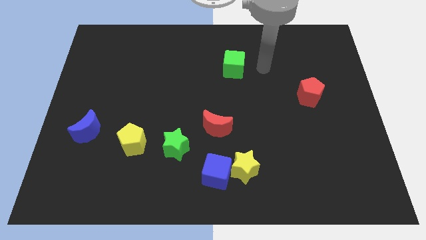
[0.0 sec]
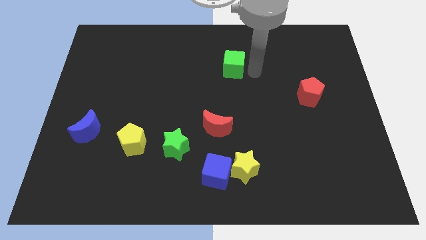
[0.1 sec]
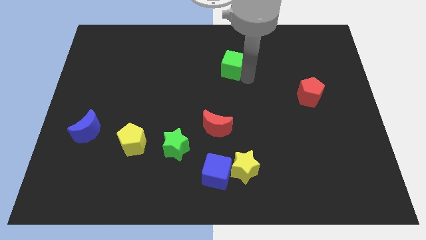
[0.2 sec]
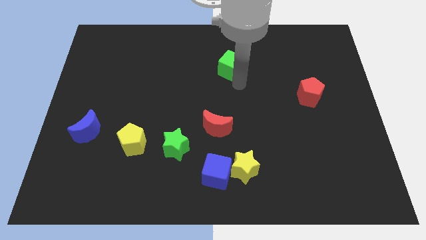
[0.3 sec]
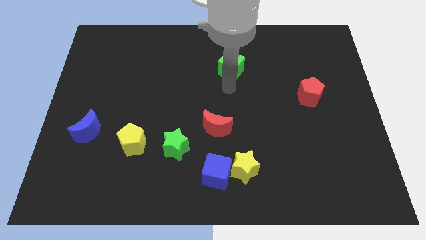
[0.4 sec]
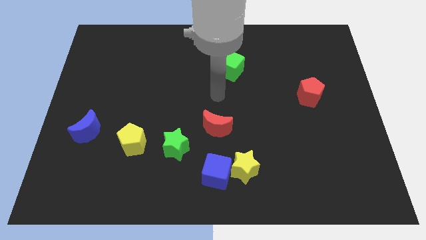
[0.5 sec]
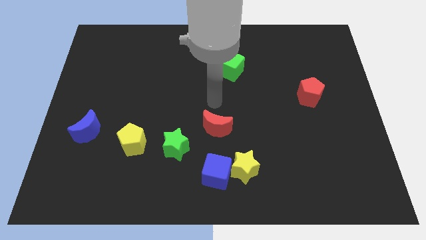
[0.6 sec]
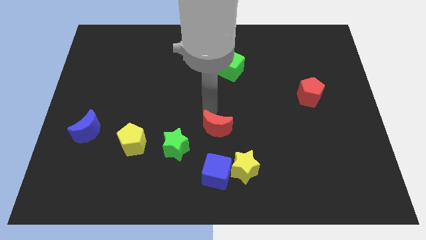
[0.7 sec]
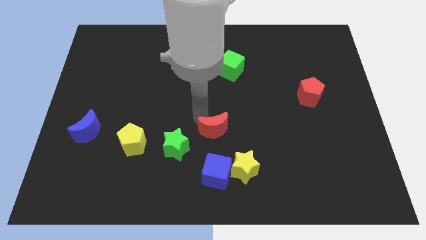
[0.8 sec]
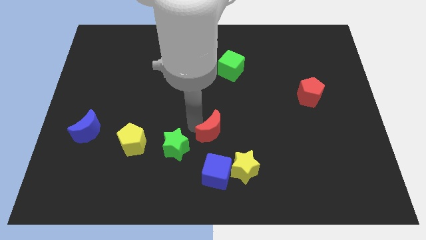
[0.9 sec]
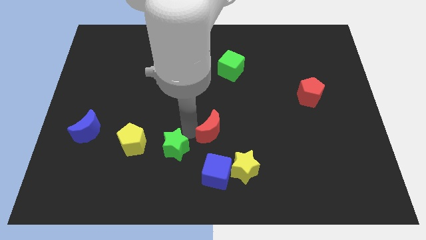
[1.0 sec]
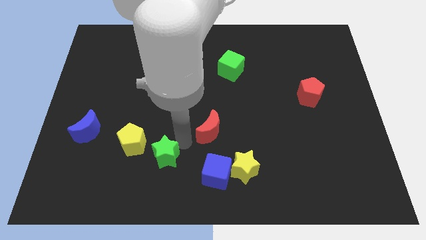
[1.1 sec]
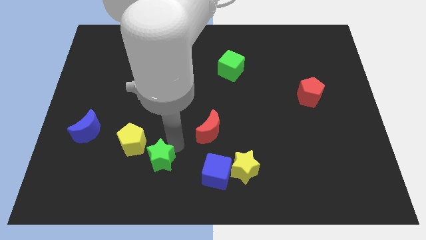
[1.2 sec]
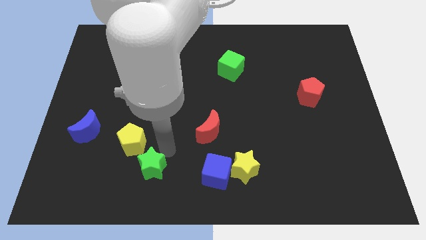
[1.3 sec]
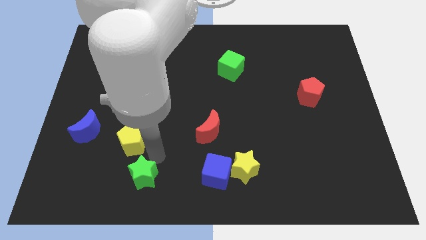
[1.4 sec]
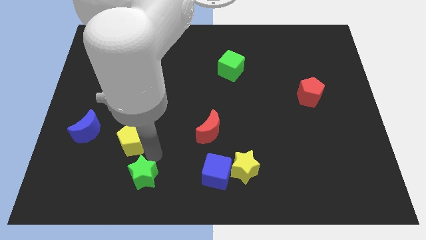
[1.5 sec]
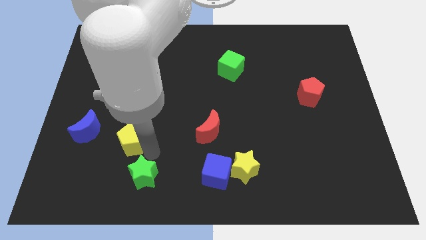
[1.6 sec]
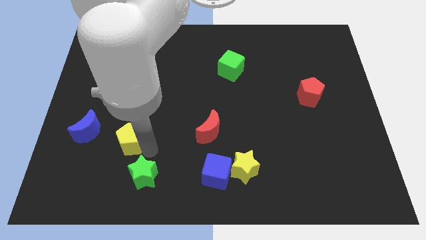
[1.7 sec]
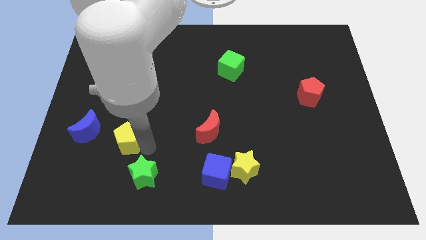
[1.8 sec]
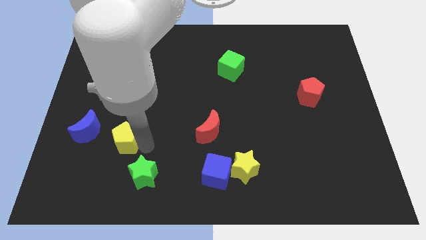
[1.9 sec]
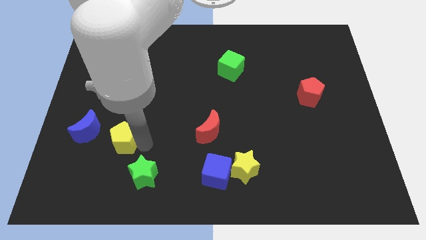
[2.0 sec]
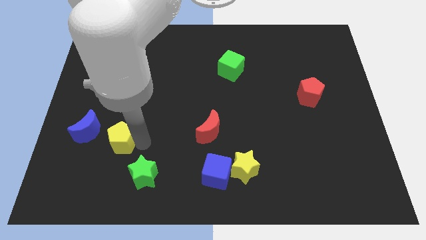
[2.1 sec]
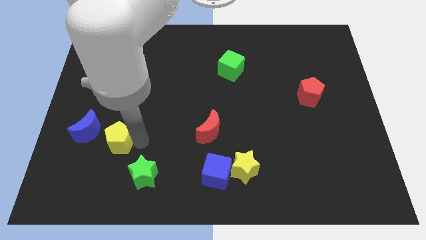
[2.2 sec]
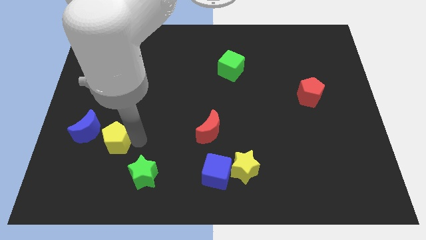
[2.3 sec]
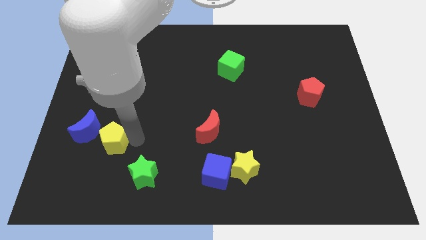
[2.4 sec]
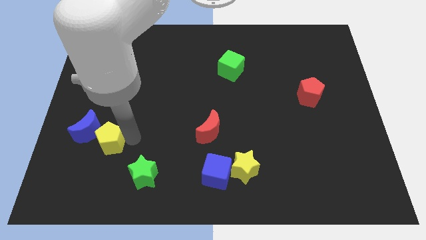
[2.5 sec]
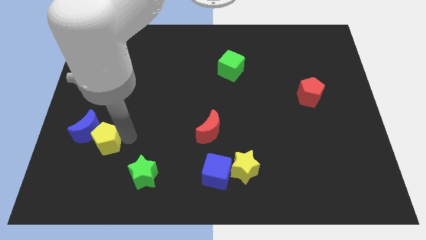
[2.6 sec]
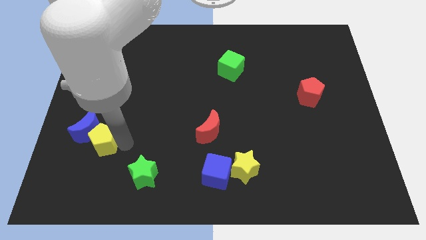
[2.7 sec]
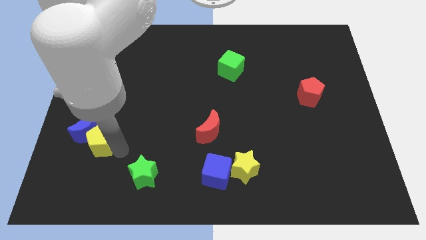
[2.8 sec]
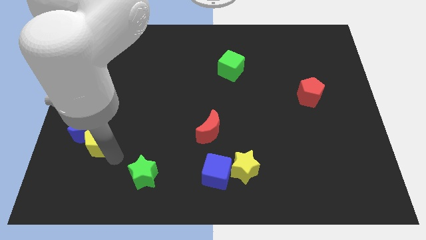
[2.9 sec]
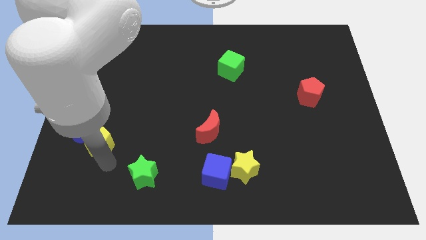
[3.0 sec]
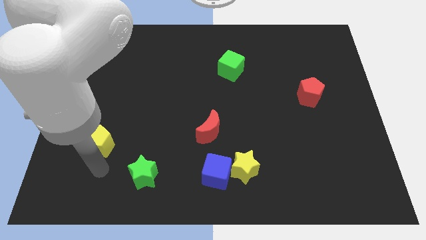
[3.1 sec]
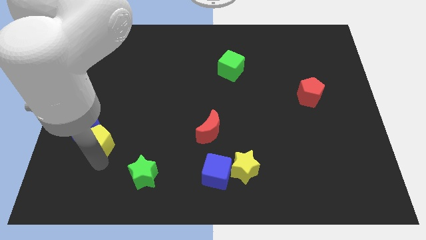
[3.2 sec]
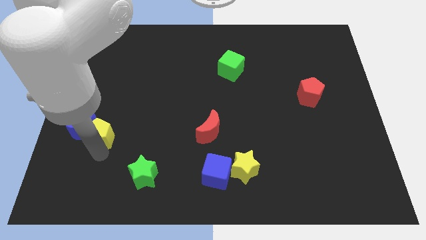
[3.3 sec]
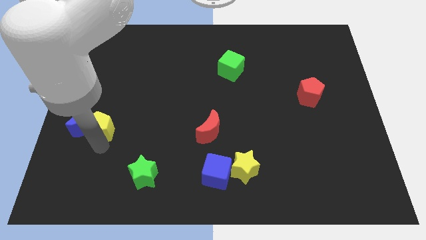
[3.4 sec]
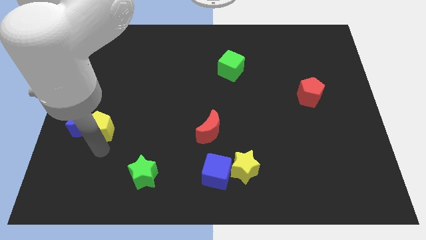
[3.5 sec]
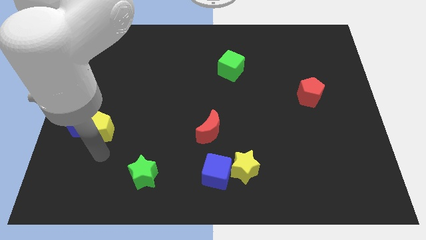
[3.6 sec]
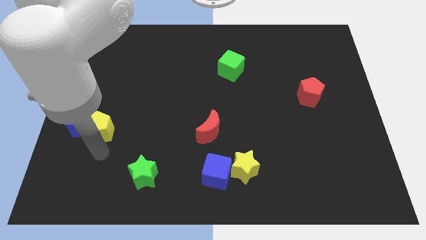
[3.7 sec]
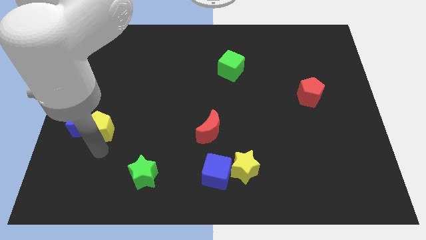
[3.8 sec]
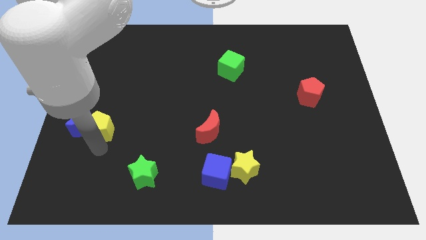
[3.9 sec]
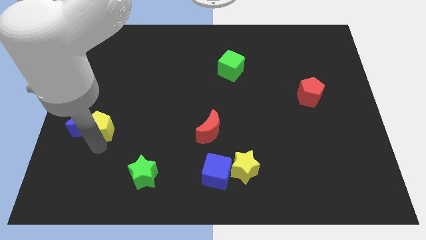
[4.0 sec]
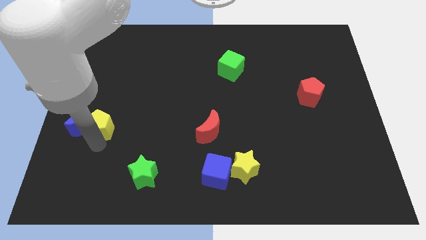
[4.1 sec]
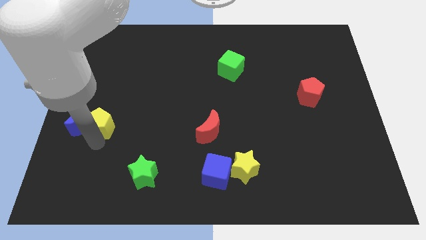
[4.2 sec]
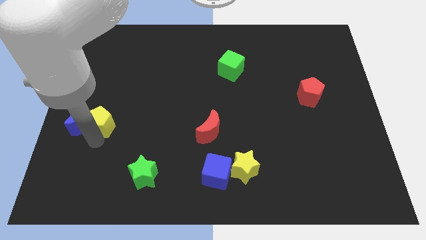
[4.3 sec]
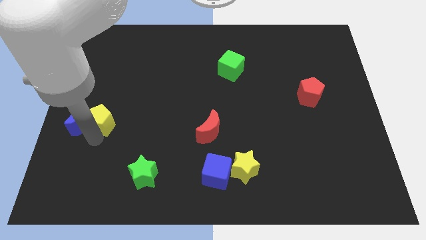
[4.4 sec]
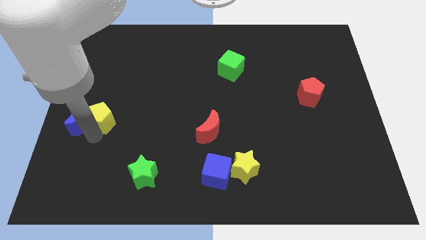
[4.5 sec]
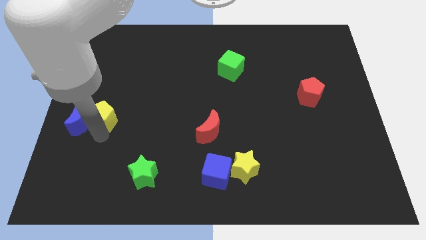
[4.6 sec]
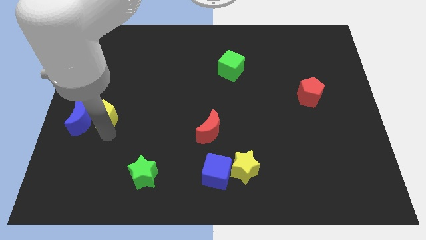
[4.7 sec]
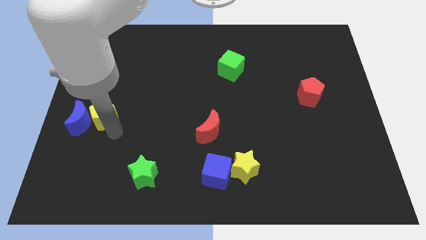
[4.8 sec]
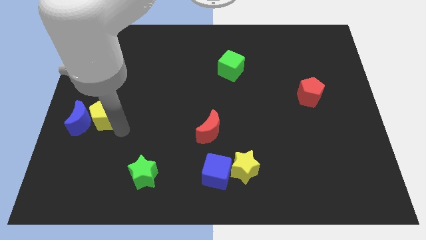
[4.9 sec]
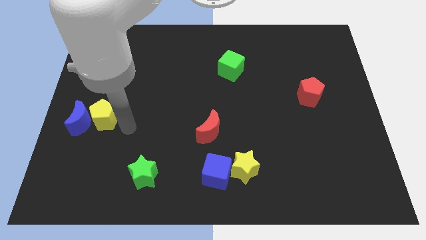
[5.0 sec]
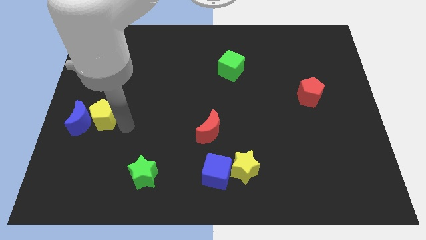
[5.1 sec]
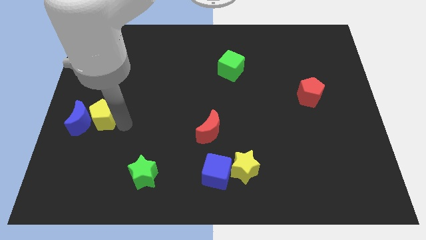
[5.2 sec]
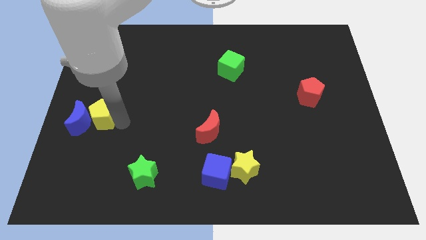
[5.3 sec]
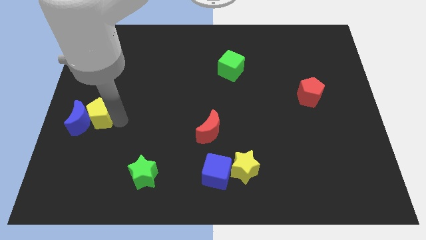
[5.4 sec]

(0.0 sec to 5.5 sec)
push the yellow pentagon to the left side of the board
